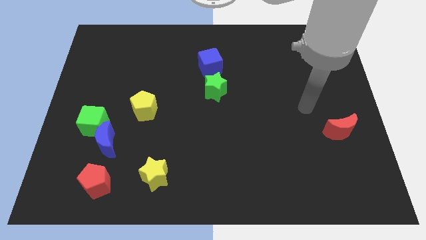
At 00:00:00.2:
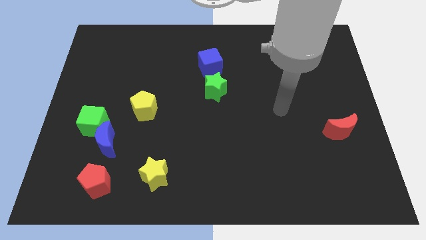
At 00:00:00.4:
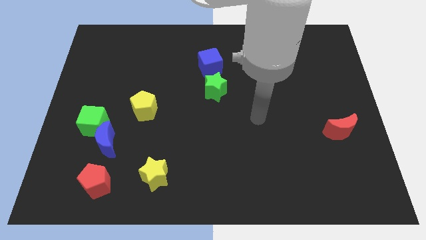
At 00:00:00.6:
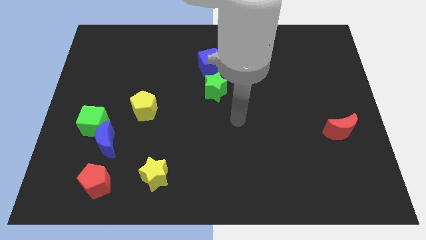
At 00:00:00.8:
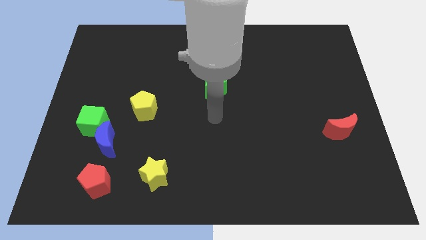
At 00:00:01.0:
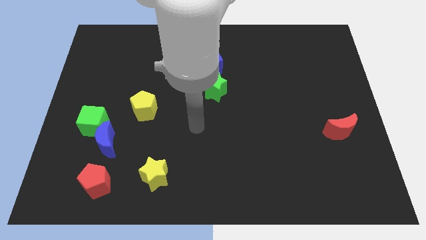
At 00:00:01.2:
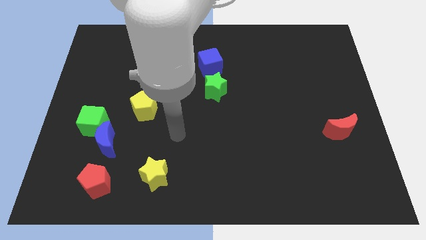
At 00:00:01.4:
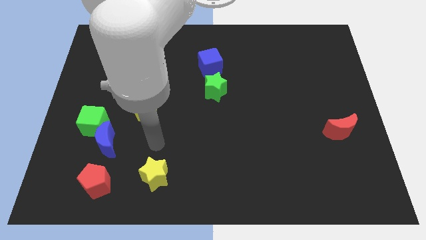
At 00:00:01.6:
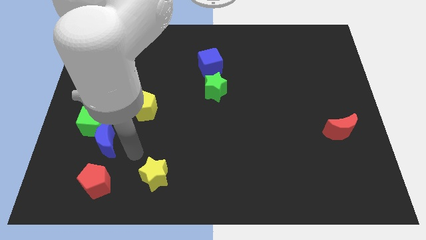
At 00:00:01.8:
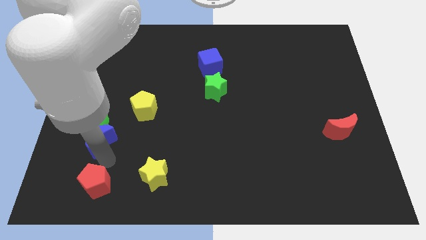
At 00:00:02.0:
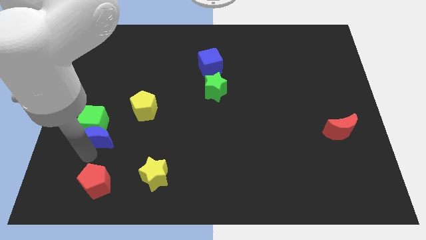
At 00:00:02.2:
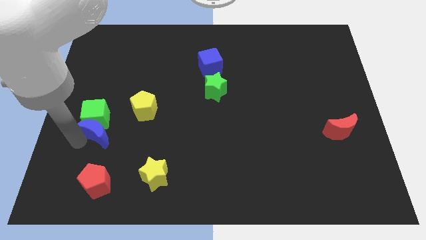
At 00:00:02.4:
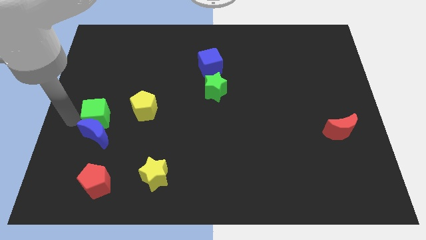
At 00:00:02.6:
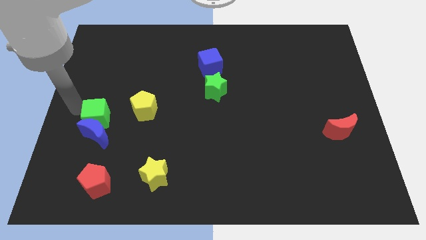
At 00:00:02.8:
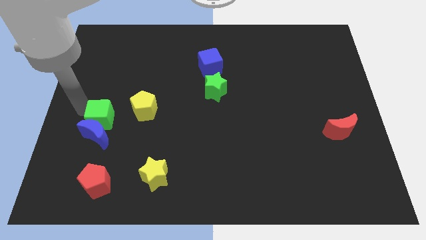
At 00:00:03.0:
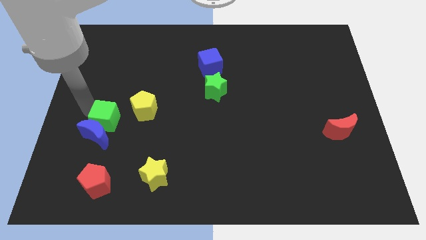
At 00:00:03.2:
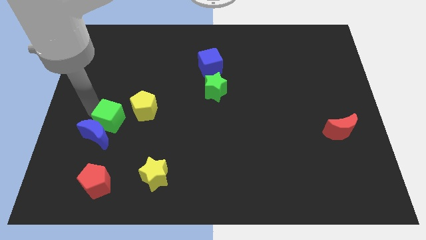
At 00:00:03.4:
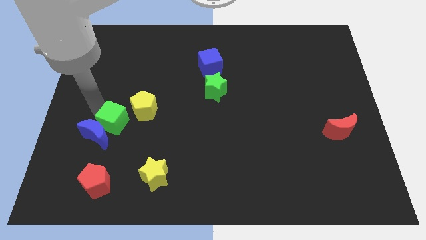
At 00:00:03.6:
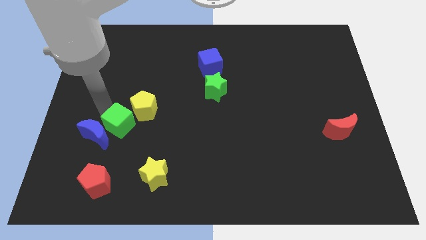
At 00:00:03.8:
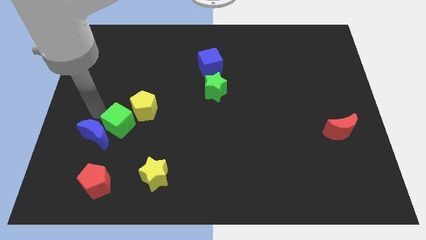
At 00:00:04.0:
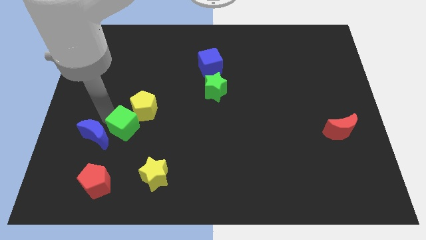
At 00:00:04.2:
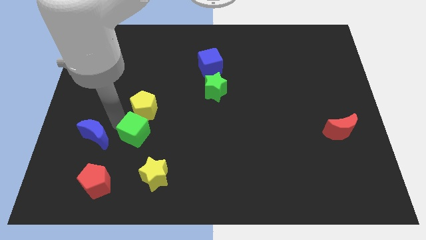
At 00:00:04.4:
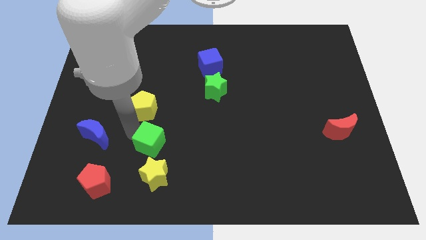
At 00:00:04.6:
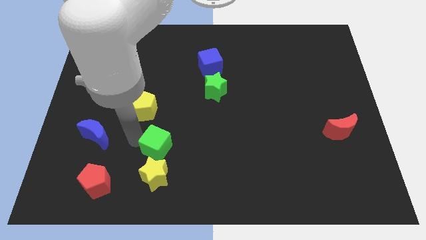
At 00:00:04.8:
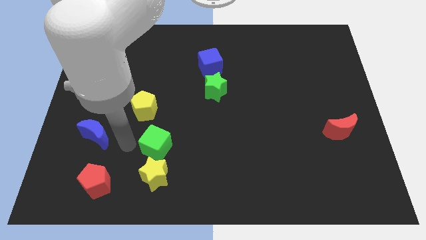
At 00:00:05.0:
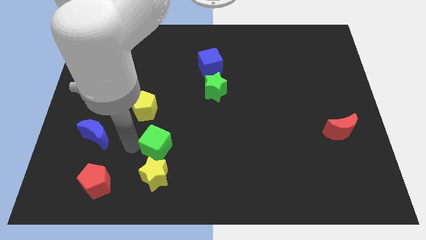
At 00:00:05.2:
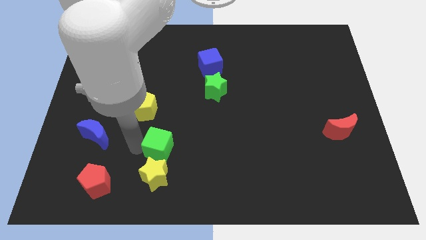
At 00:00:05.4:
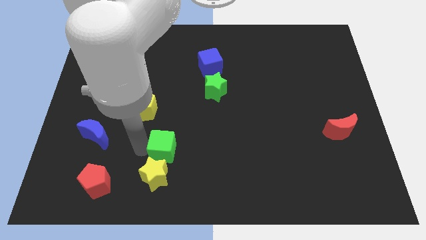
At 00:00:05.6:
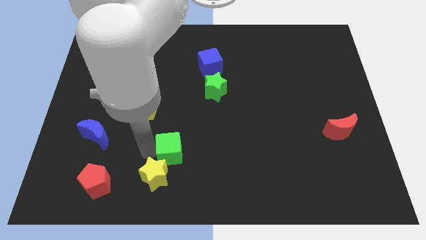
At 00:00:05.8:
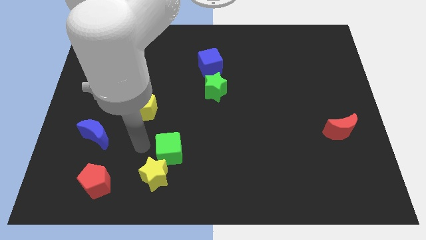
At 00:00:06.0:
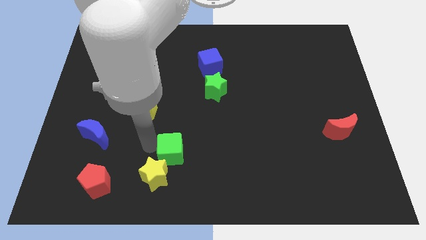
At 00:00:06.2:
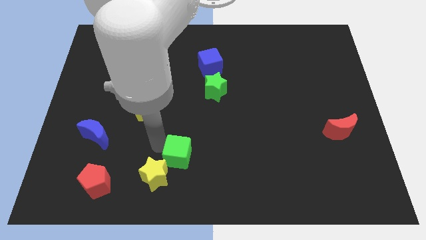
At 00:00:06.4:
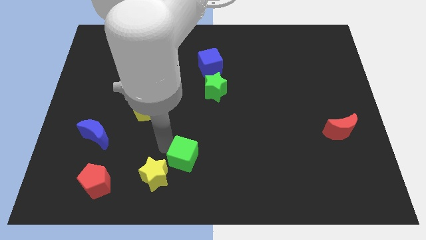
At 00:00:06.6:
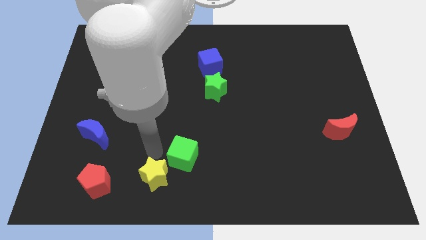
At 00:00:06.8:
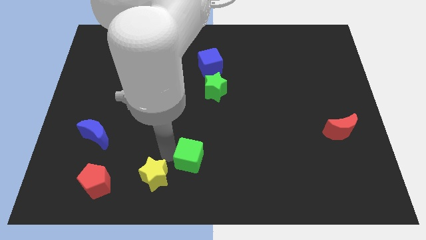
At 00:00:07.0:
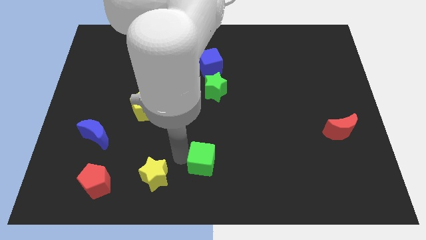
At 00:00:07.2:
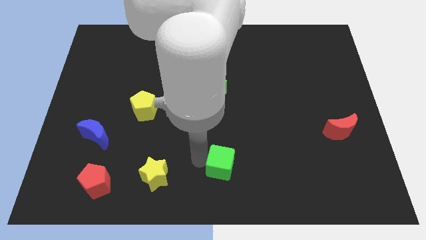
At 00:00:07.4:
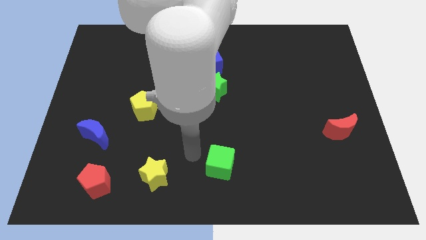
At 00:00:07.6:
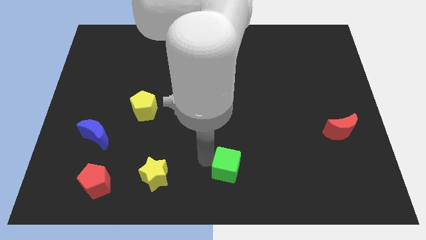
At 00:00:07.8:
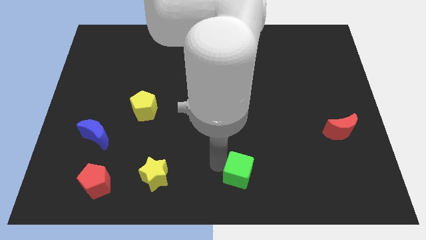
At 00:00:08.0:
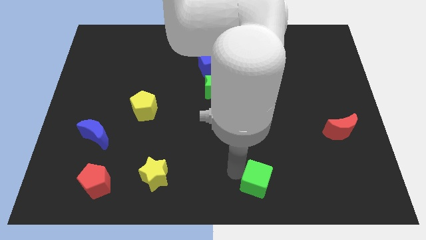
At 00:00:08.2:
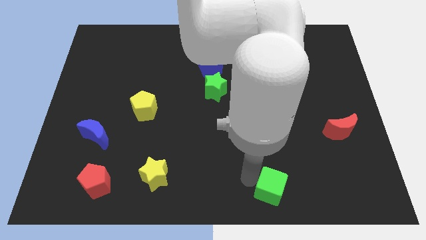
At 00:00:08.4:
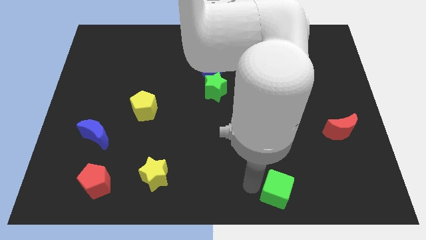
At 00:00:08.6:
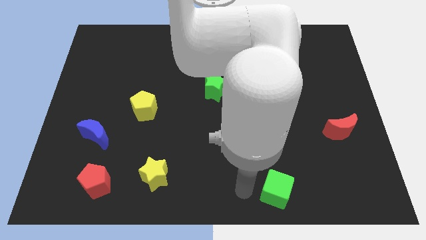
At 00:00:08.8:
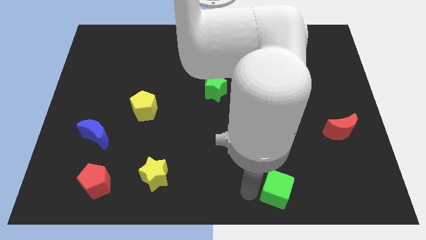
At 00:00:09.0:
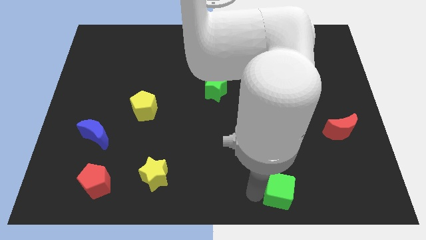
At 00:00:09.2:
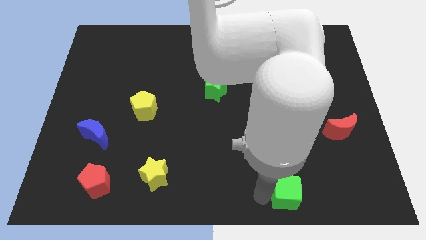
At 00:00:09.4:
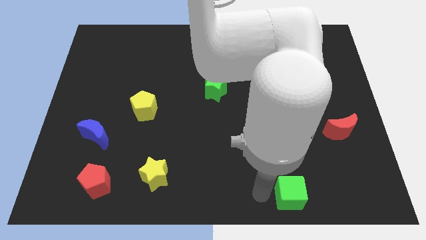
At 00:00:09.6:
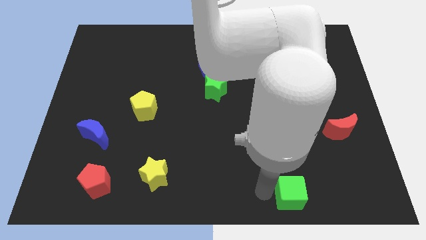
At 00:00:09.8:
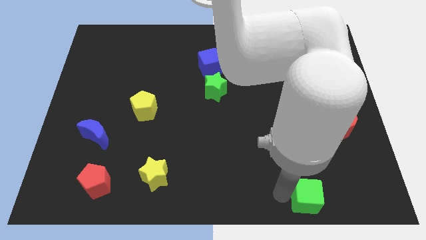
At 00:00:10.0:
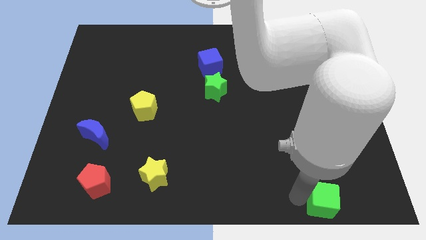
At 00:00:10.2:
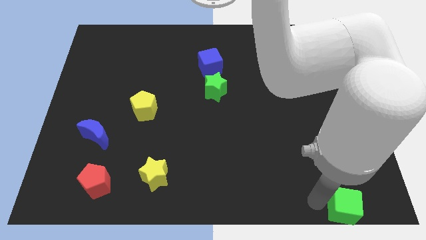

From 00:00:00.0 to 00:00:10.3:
push the green cube to the bottom right of the board

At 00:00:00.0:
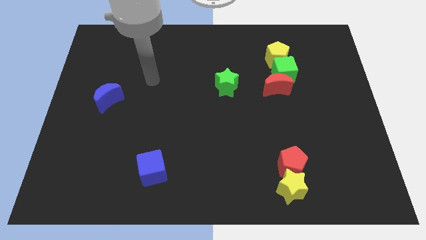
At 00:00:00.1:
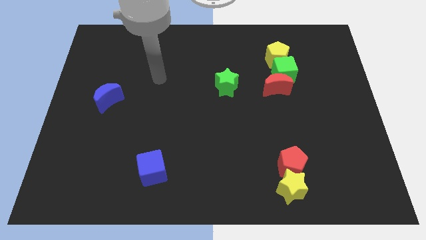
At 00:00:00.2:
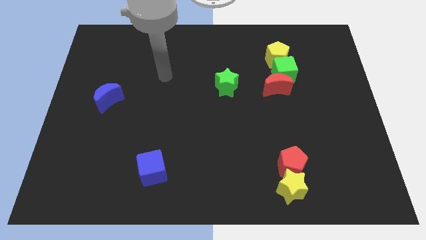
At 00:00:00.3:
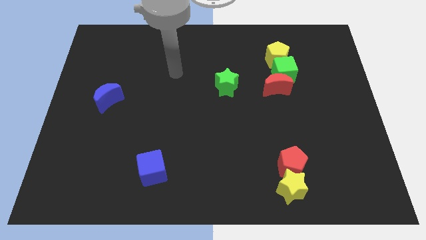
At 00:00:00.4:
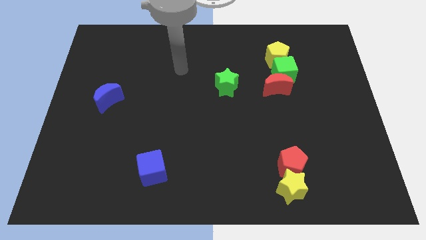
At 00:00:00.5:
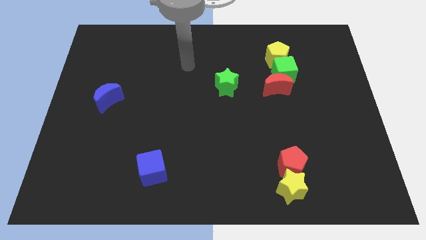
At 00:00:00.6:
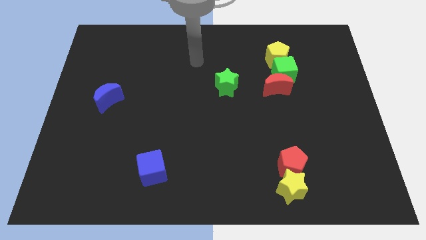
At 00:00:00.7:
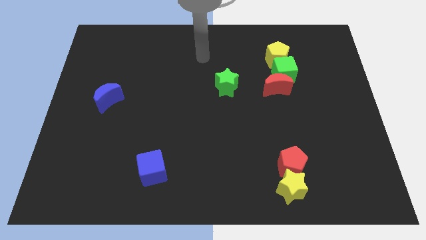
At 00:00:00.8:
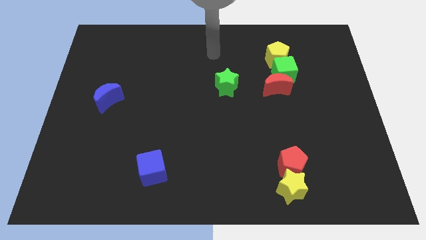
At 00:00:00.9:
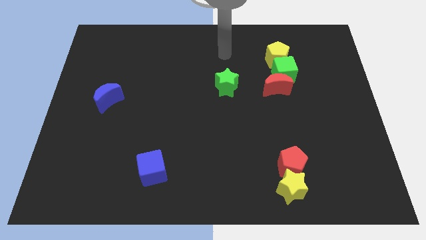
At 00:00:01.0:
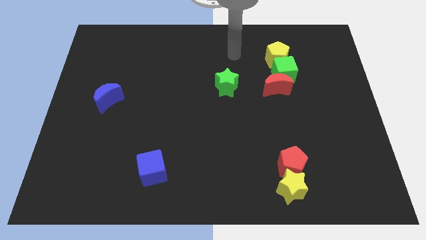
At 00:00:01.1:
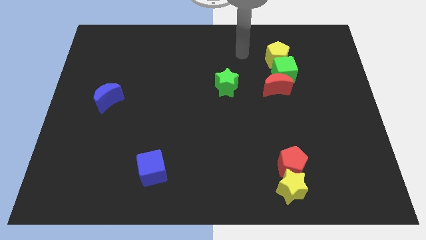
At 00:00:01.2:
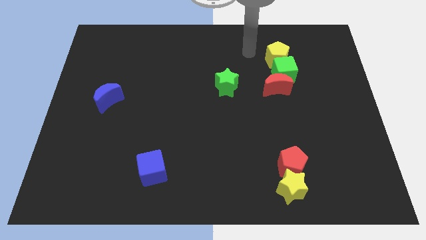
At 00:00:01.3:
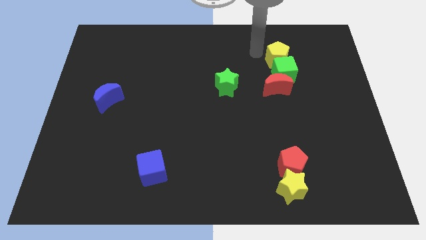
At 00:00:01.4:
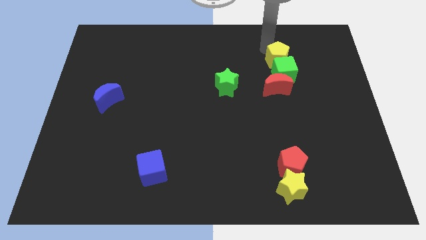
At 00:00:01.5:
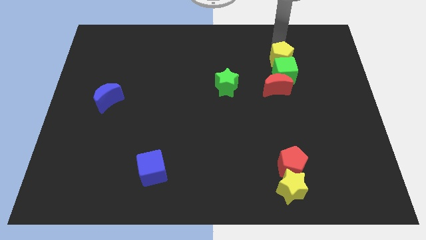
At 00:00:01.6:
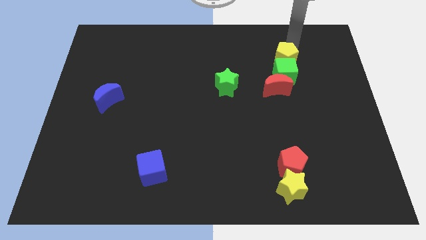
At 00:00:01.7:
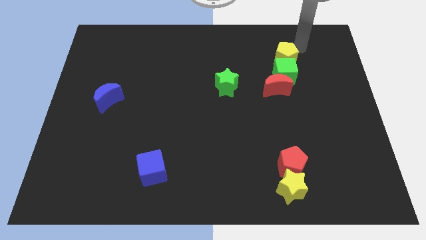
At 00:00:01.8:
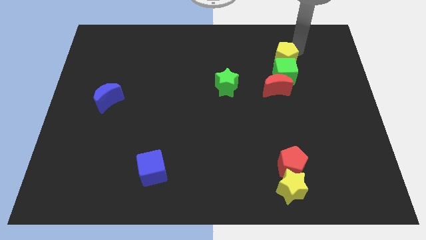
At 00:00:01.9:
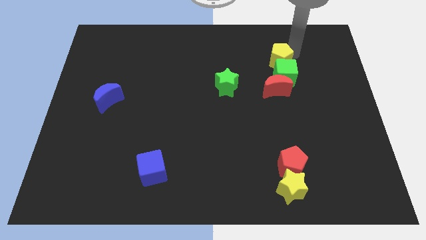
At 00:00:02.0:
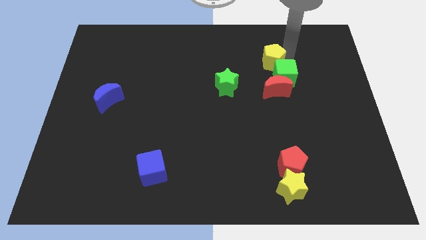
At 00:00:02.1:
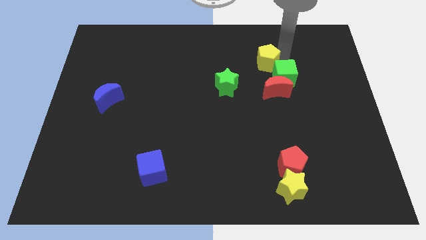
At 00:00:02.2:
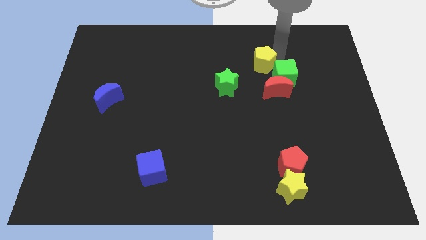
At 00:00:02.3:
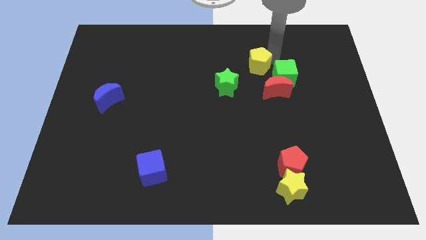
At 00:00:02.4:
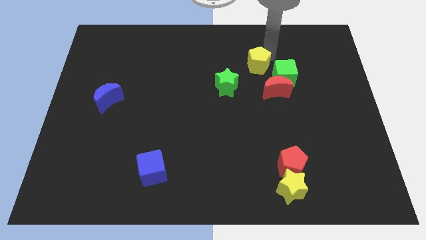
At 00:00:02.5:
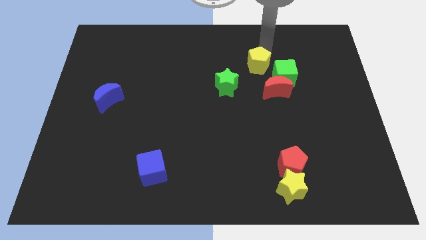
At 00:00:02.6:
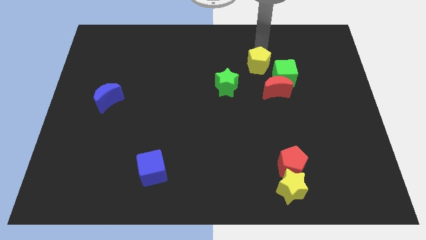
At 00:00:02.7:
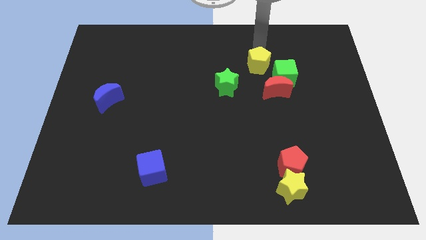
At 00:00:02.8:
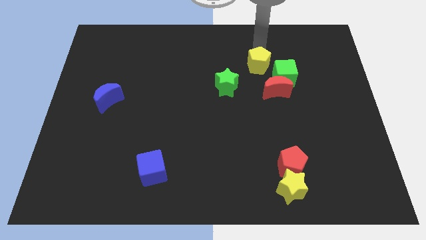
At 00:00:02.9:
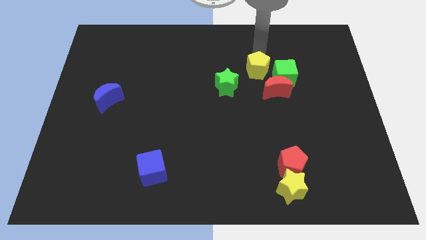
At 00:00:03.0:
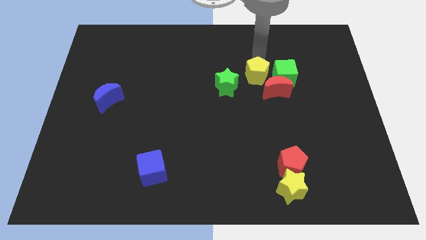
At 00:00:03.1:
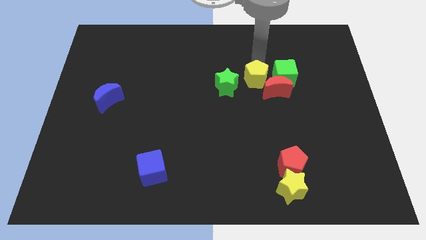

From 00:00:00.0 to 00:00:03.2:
move the yellow pentagon to the center of the board
